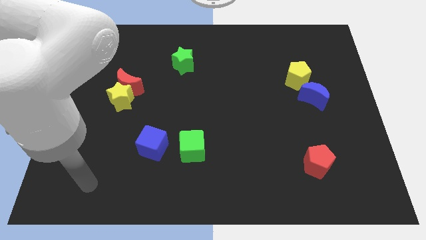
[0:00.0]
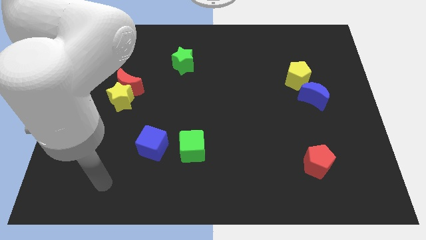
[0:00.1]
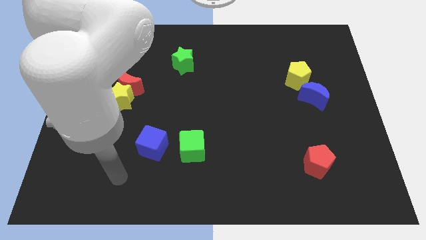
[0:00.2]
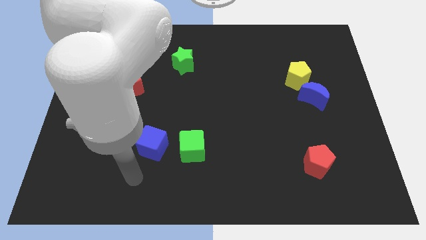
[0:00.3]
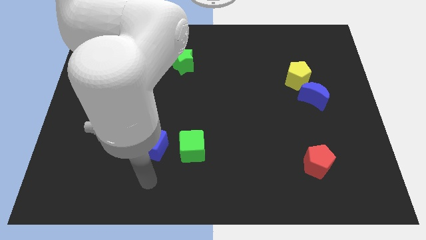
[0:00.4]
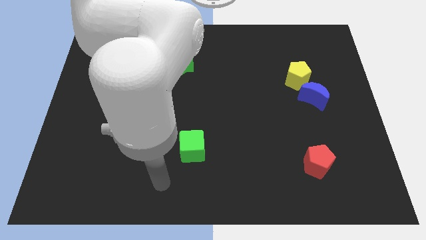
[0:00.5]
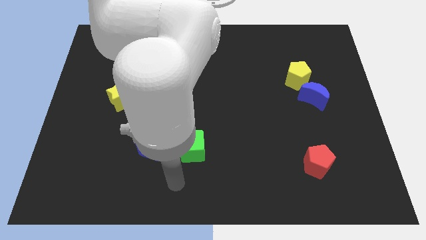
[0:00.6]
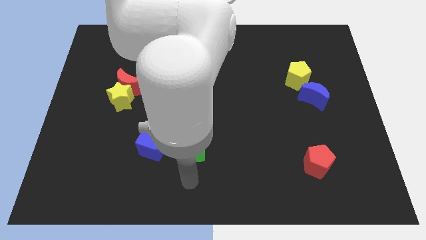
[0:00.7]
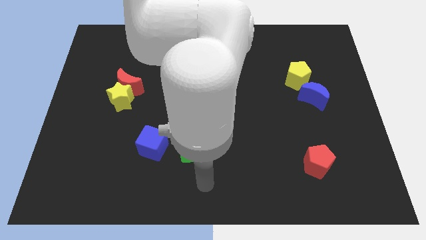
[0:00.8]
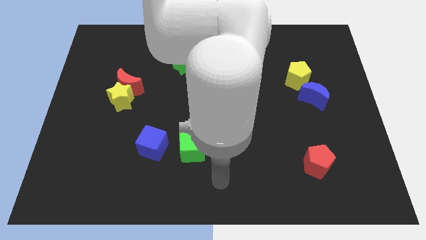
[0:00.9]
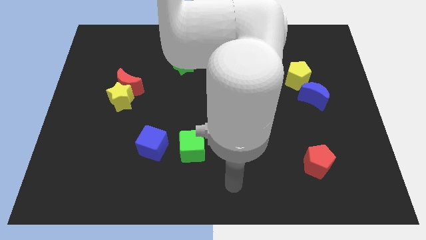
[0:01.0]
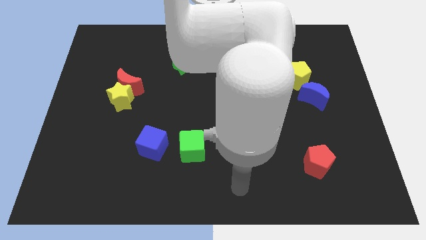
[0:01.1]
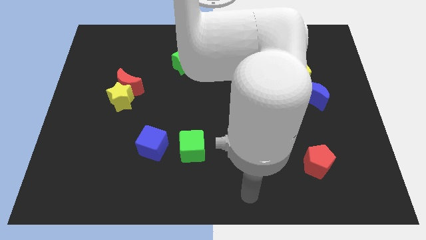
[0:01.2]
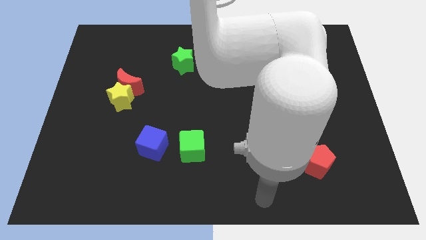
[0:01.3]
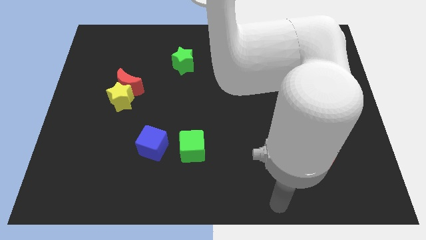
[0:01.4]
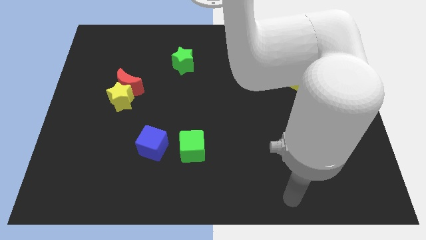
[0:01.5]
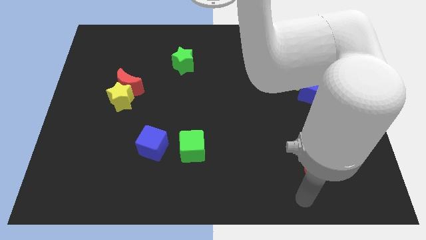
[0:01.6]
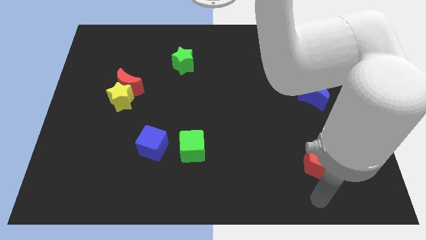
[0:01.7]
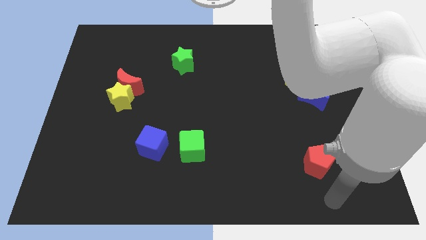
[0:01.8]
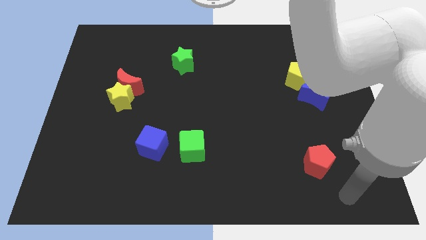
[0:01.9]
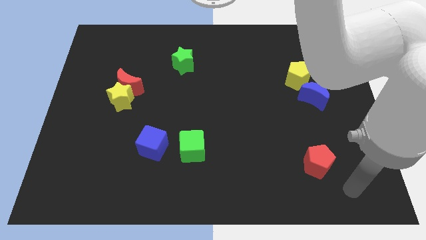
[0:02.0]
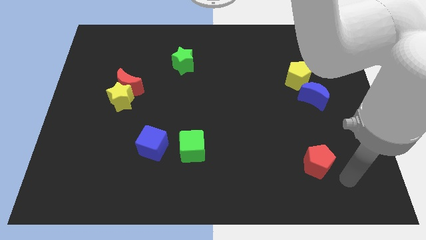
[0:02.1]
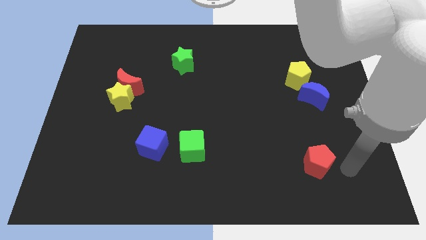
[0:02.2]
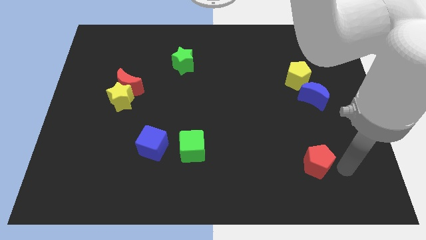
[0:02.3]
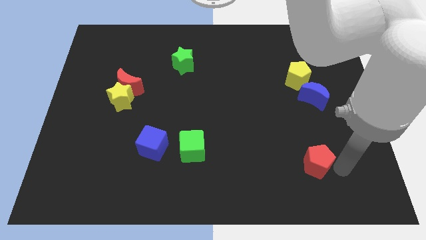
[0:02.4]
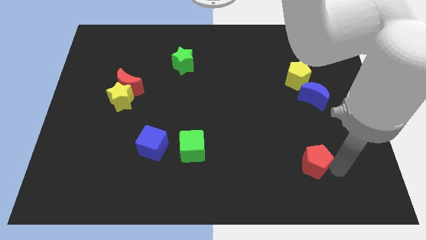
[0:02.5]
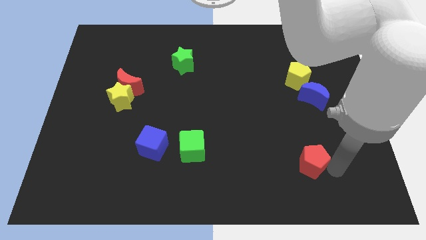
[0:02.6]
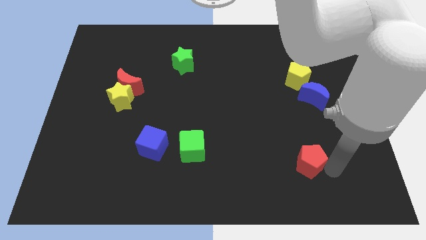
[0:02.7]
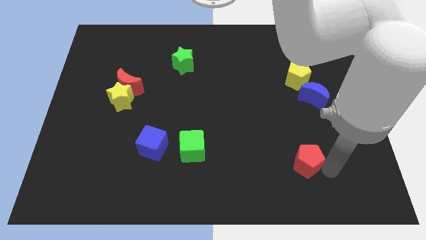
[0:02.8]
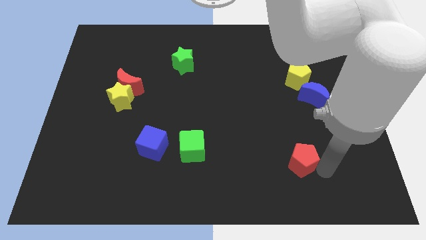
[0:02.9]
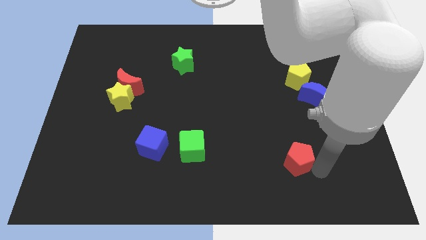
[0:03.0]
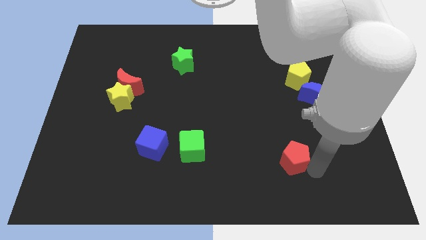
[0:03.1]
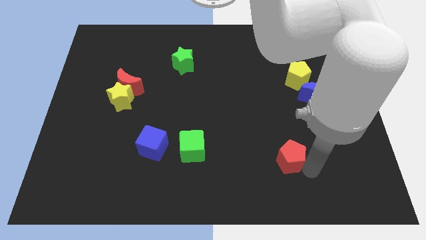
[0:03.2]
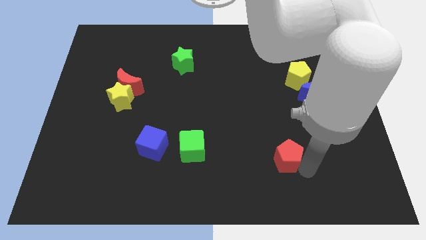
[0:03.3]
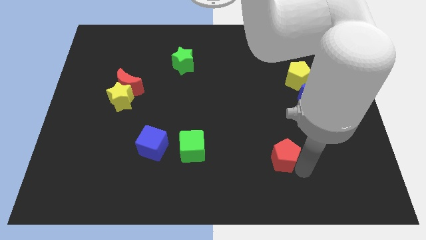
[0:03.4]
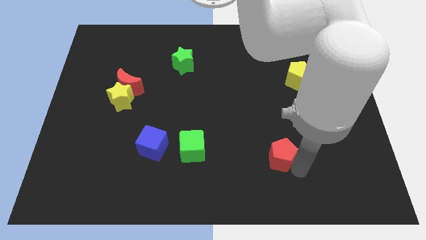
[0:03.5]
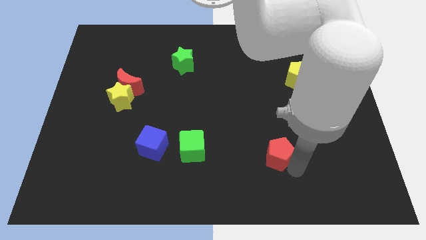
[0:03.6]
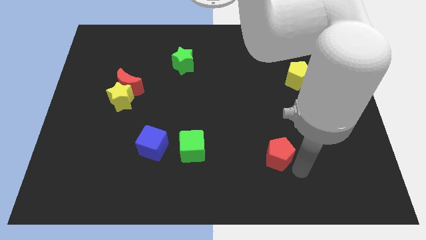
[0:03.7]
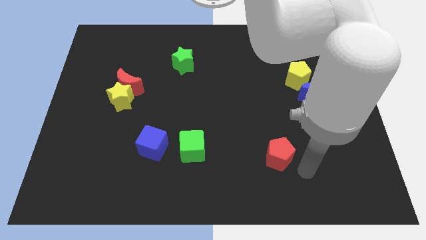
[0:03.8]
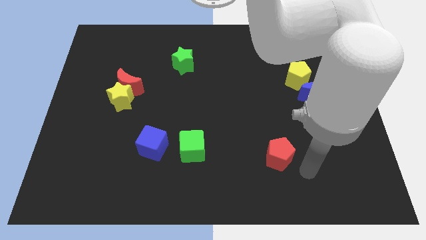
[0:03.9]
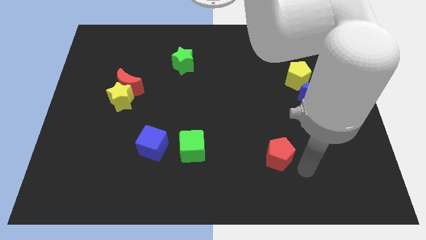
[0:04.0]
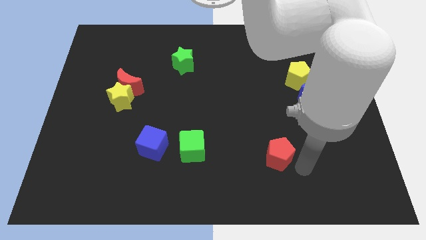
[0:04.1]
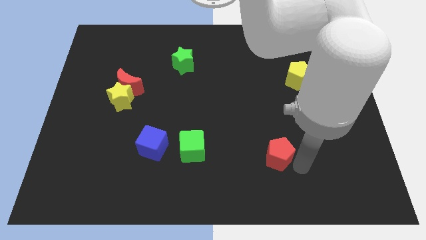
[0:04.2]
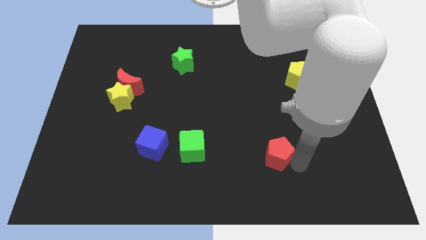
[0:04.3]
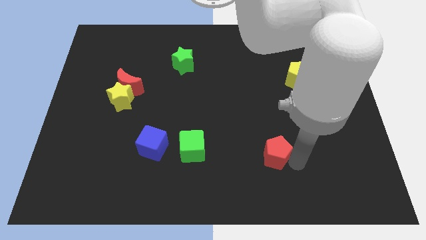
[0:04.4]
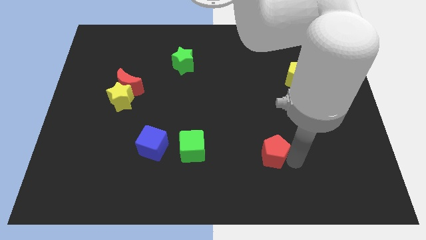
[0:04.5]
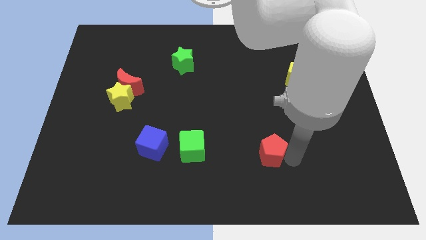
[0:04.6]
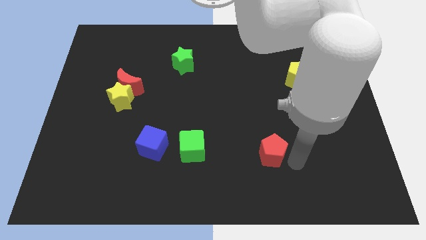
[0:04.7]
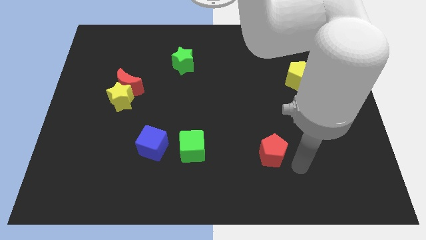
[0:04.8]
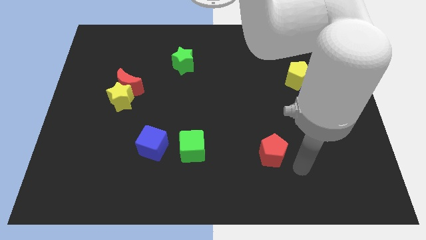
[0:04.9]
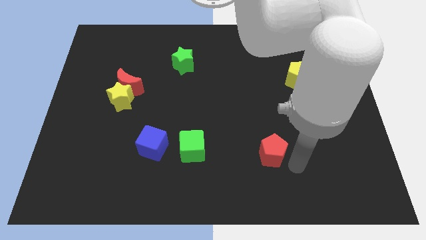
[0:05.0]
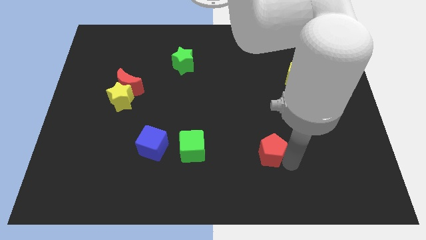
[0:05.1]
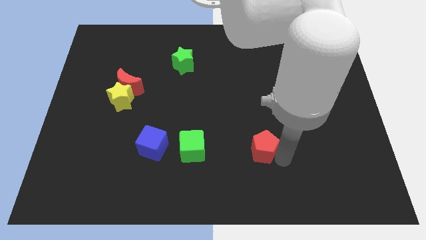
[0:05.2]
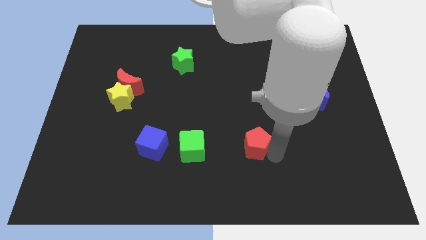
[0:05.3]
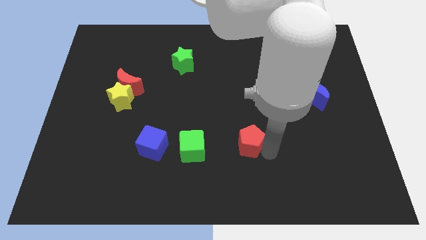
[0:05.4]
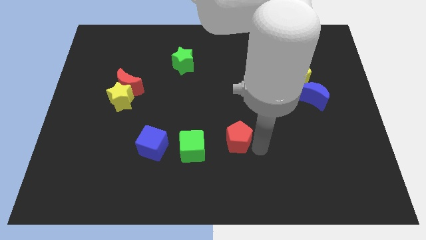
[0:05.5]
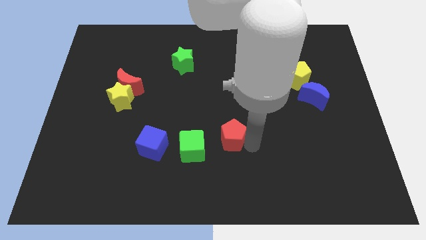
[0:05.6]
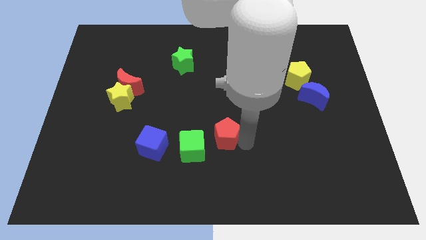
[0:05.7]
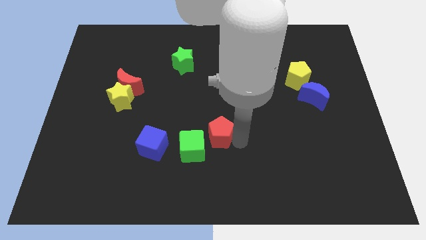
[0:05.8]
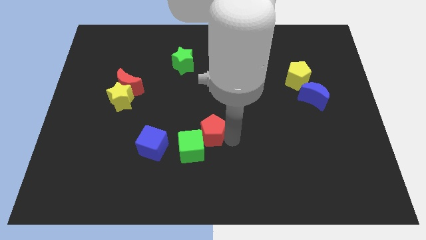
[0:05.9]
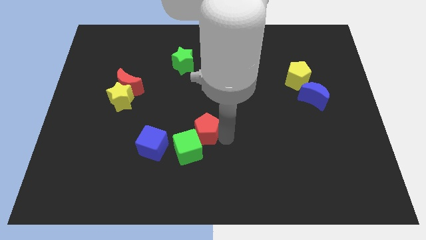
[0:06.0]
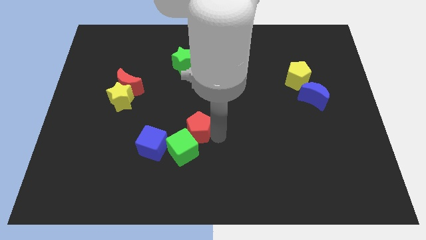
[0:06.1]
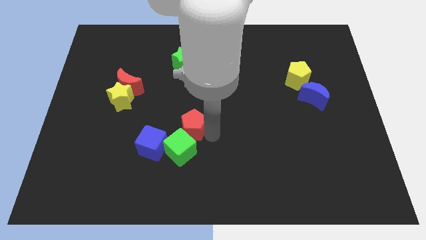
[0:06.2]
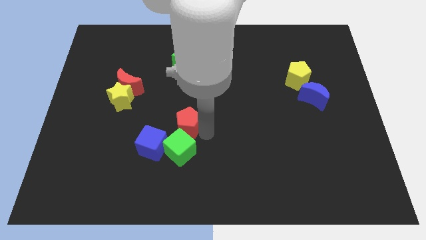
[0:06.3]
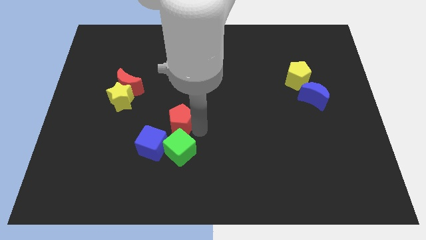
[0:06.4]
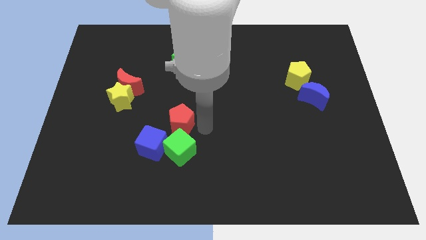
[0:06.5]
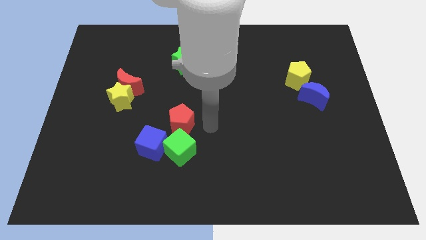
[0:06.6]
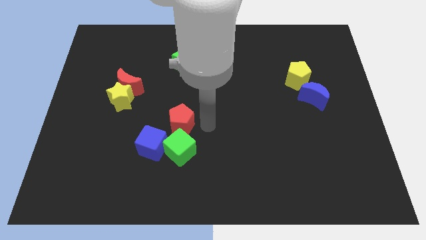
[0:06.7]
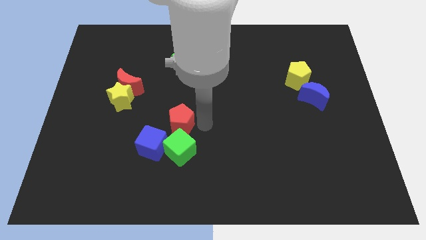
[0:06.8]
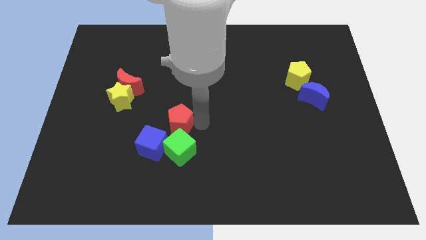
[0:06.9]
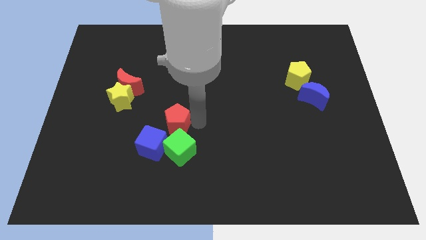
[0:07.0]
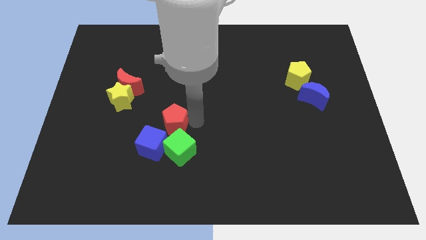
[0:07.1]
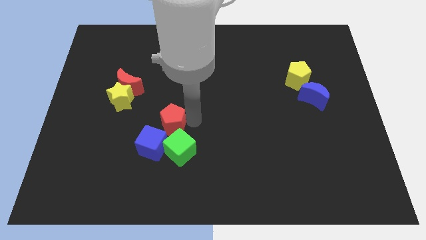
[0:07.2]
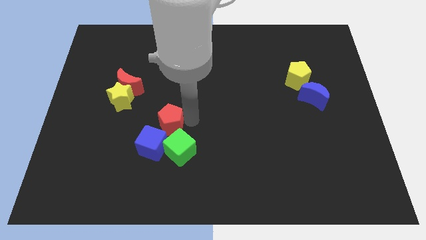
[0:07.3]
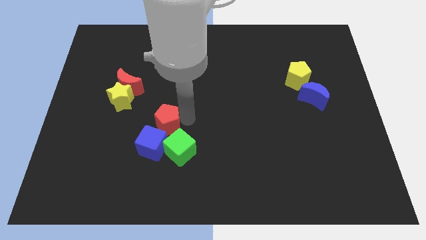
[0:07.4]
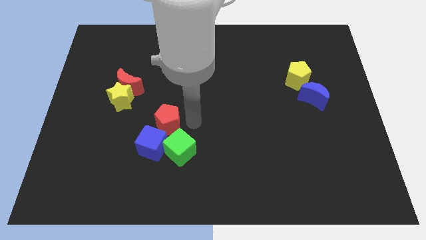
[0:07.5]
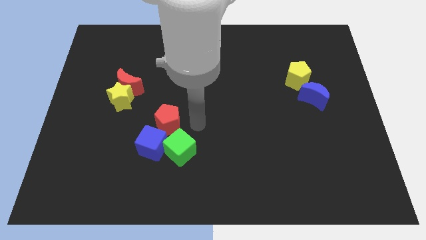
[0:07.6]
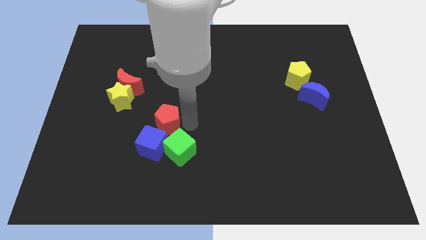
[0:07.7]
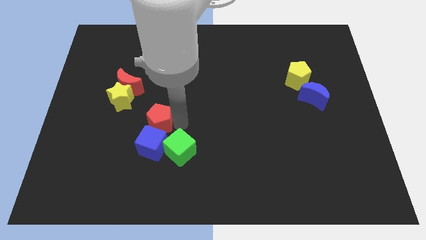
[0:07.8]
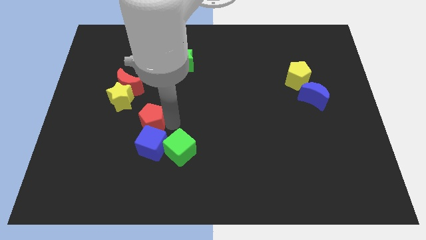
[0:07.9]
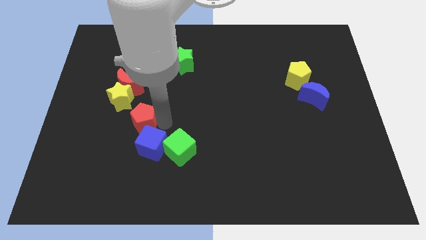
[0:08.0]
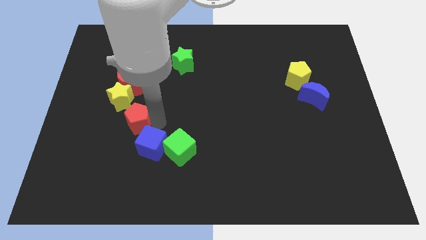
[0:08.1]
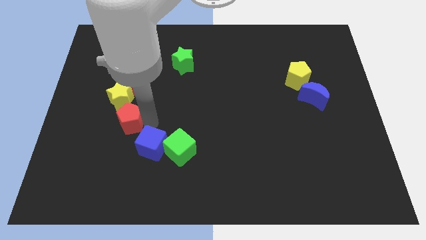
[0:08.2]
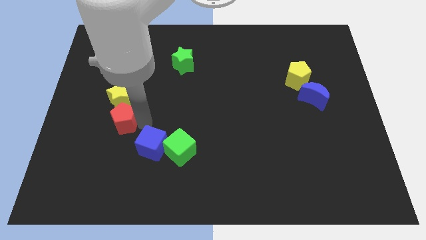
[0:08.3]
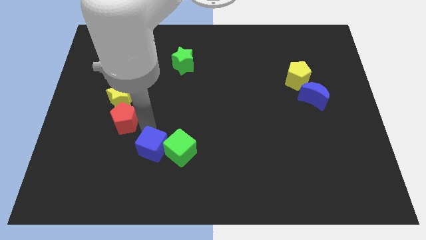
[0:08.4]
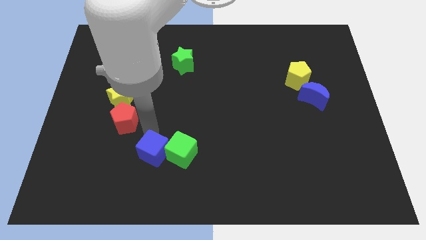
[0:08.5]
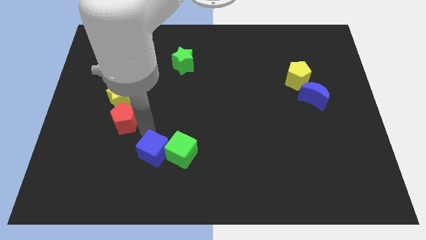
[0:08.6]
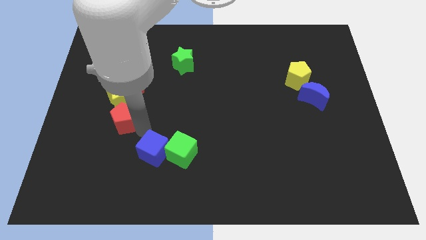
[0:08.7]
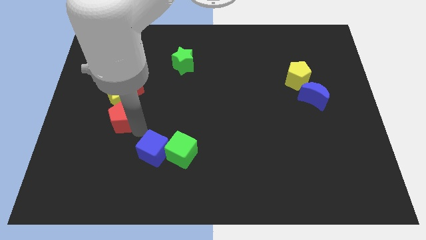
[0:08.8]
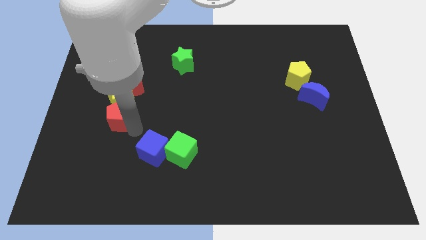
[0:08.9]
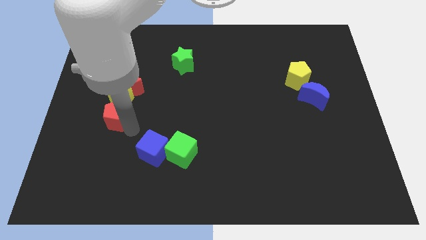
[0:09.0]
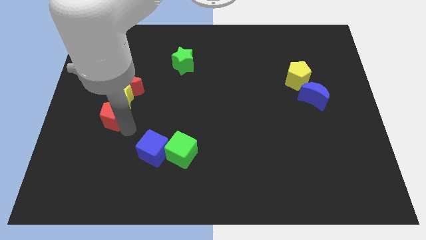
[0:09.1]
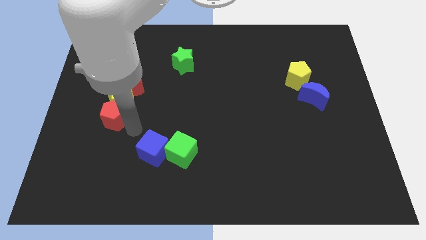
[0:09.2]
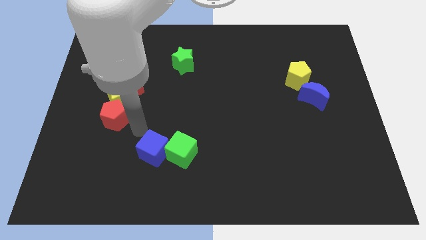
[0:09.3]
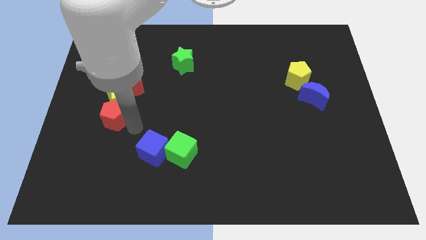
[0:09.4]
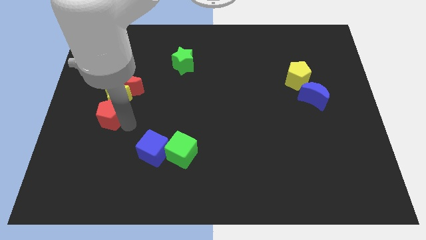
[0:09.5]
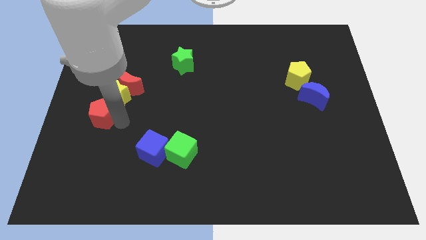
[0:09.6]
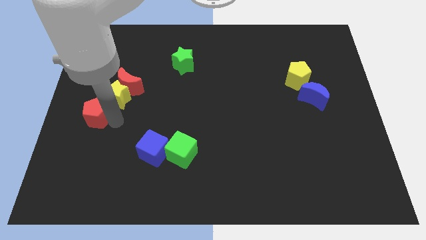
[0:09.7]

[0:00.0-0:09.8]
put the red pentagon to the left side
